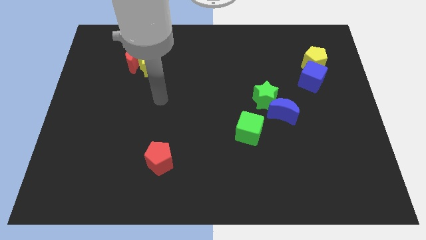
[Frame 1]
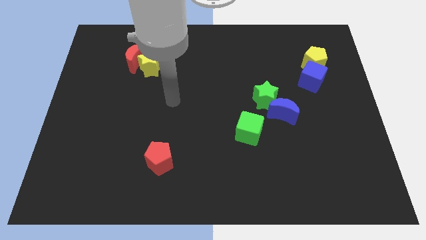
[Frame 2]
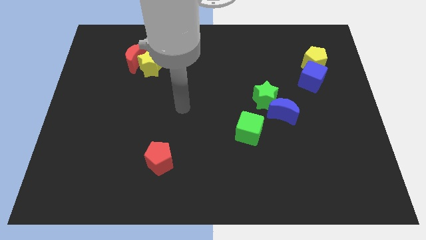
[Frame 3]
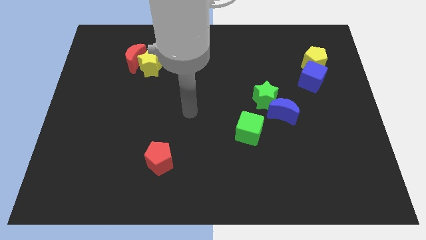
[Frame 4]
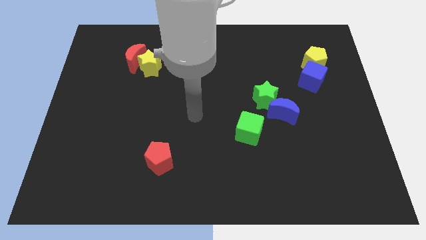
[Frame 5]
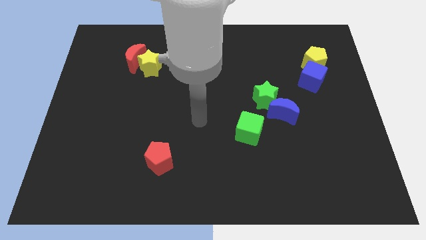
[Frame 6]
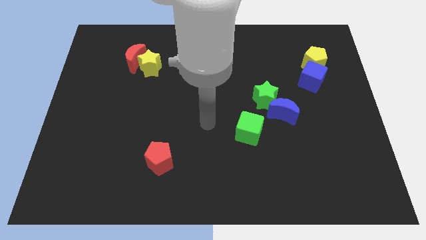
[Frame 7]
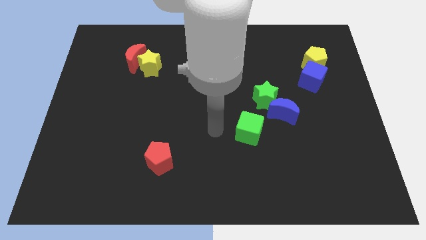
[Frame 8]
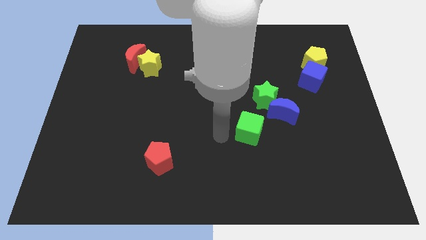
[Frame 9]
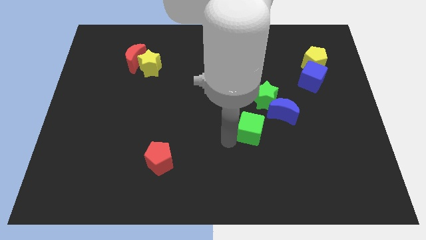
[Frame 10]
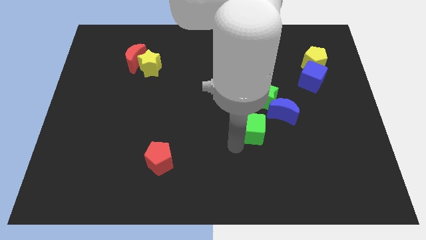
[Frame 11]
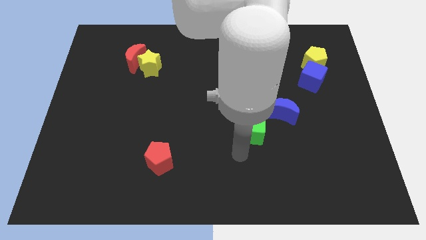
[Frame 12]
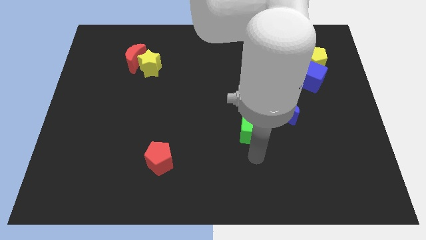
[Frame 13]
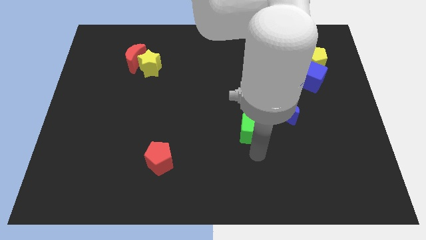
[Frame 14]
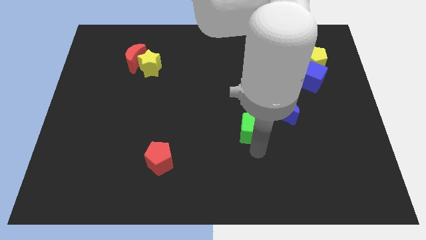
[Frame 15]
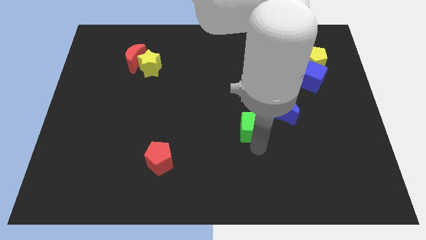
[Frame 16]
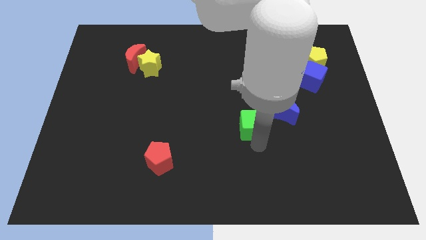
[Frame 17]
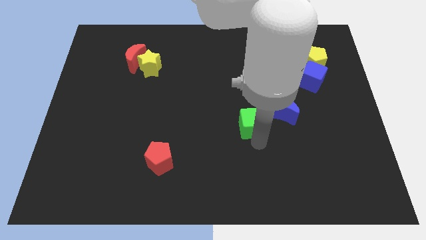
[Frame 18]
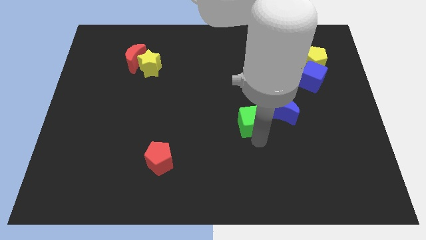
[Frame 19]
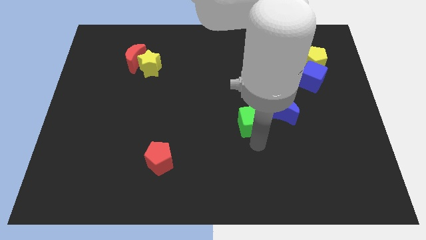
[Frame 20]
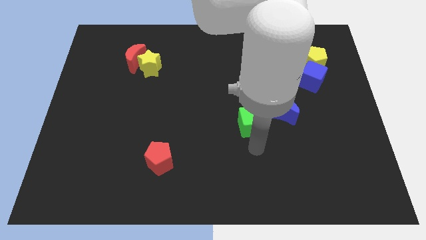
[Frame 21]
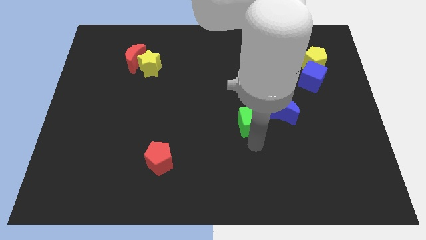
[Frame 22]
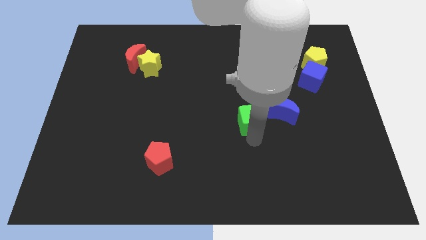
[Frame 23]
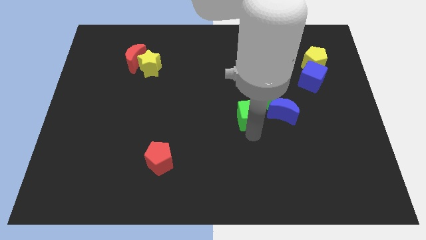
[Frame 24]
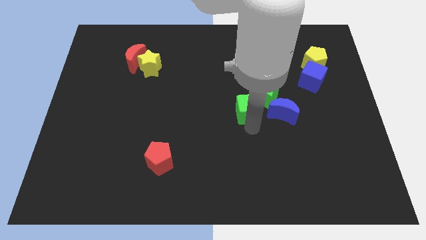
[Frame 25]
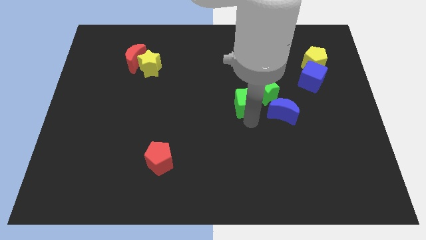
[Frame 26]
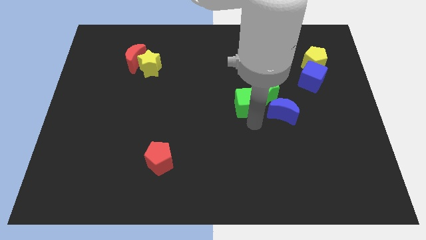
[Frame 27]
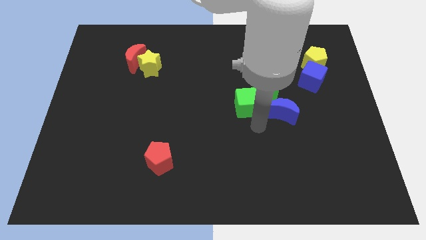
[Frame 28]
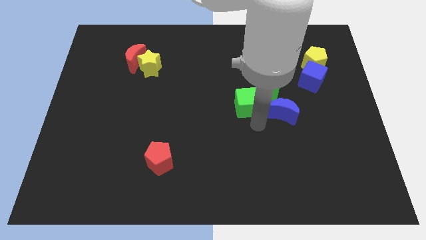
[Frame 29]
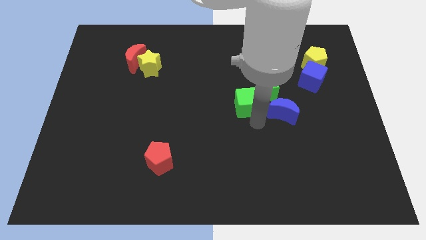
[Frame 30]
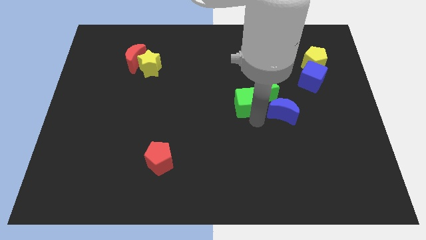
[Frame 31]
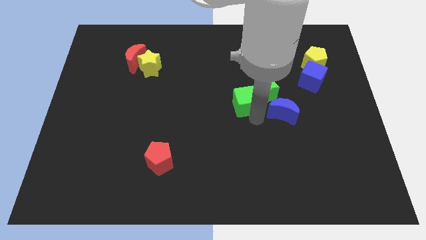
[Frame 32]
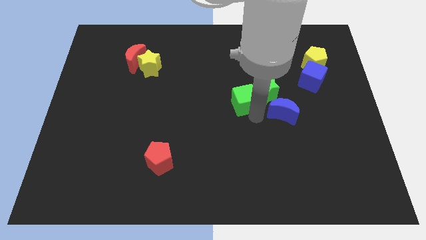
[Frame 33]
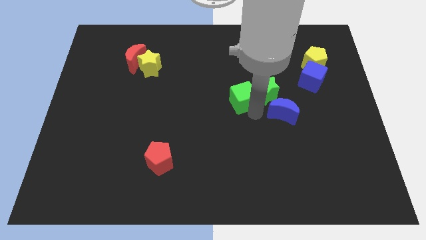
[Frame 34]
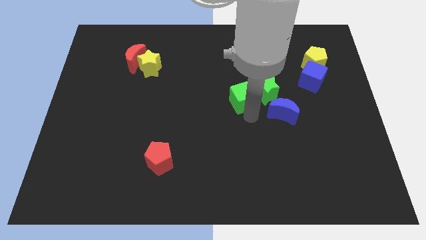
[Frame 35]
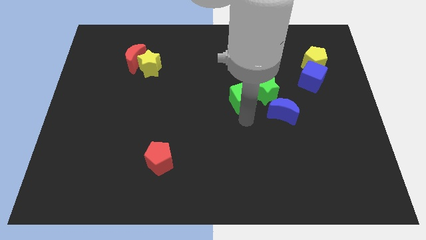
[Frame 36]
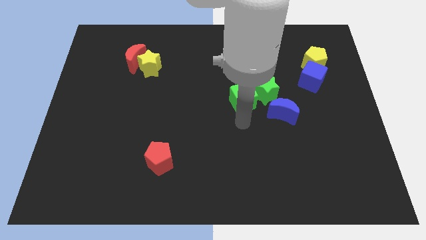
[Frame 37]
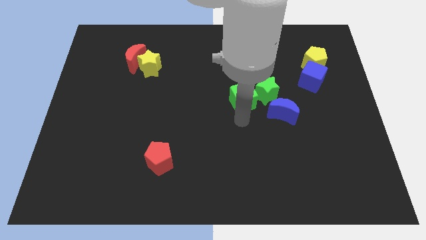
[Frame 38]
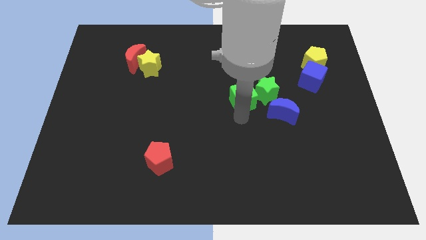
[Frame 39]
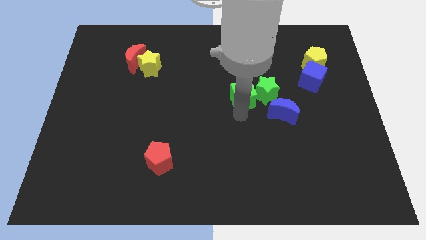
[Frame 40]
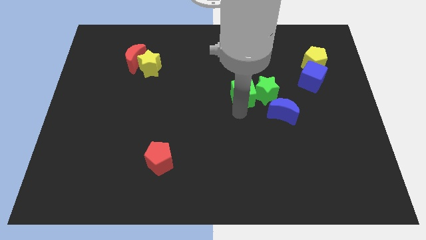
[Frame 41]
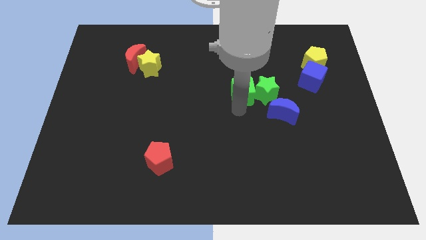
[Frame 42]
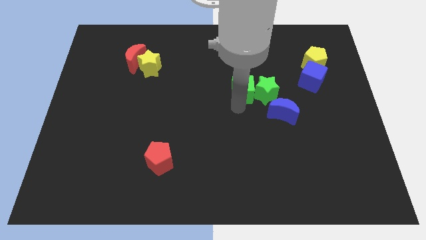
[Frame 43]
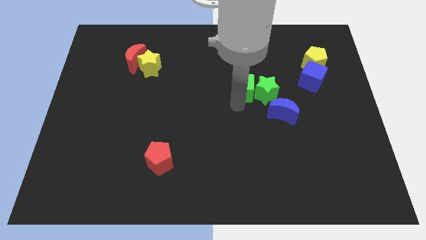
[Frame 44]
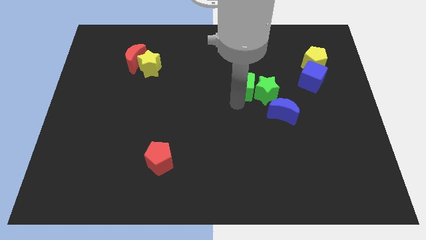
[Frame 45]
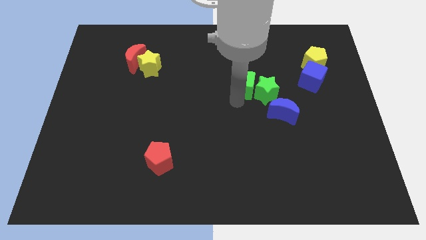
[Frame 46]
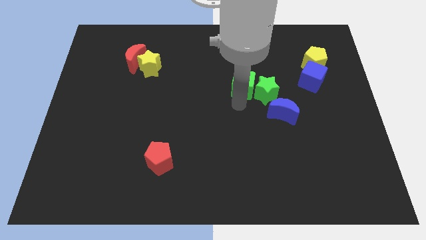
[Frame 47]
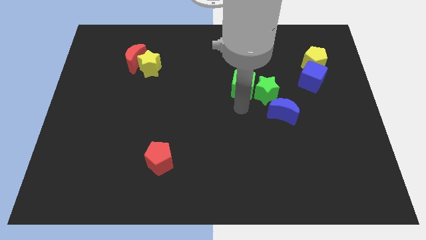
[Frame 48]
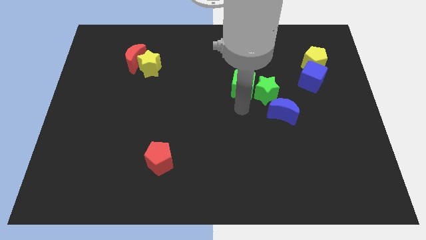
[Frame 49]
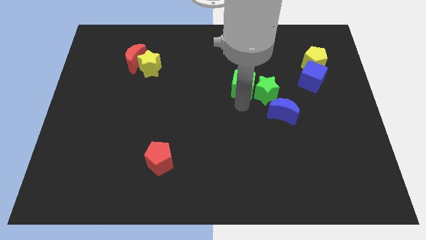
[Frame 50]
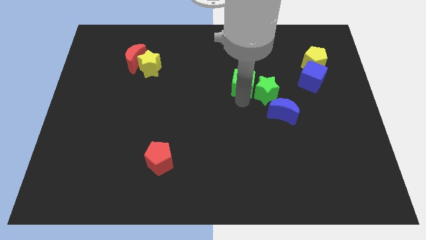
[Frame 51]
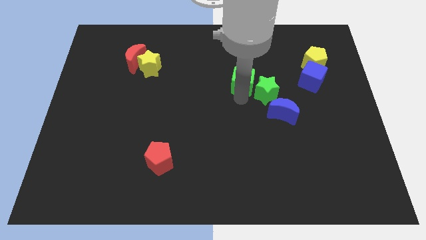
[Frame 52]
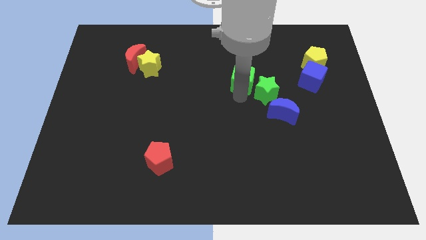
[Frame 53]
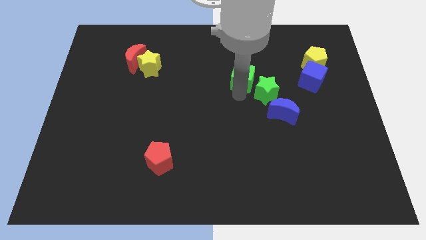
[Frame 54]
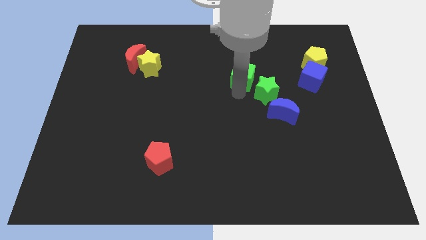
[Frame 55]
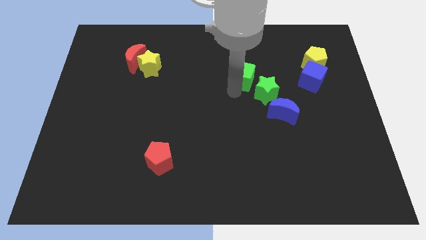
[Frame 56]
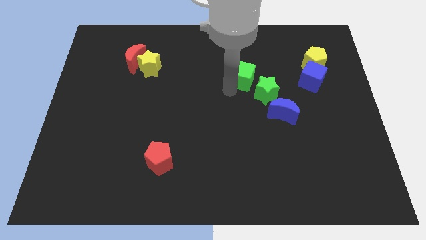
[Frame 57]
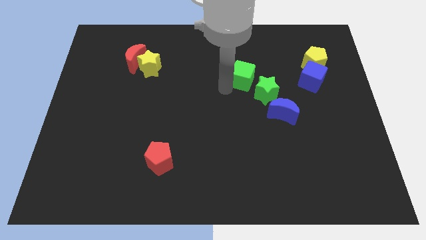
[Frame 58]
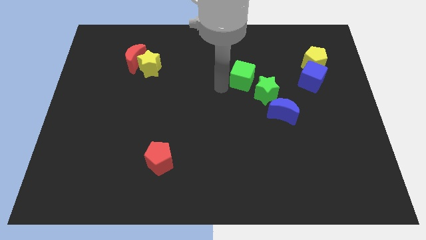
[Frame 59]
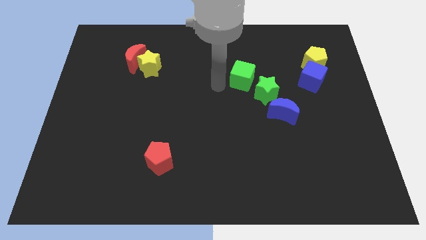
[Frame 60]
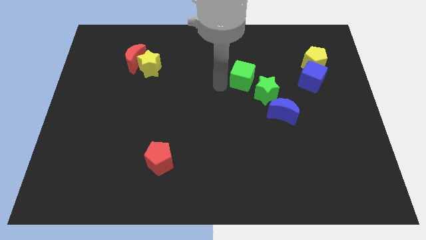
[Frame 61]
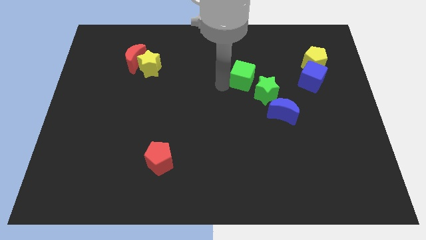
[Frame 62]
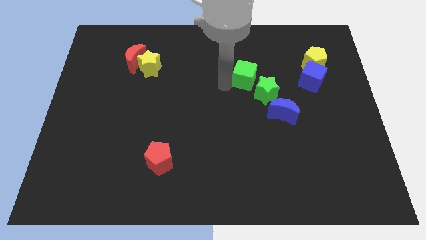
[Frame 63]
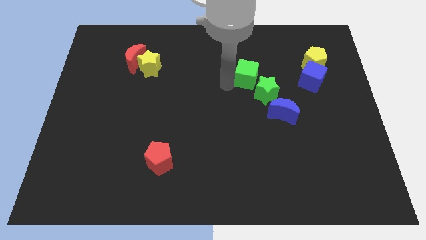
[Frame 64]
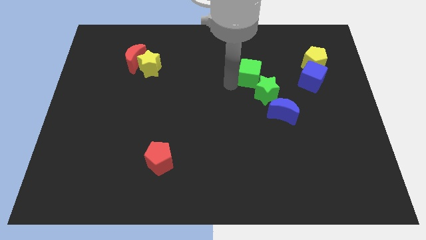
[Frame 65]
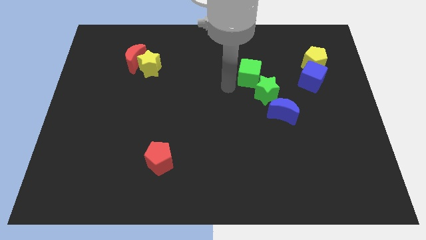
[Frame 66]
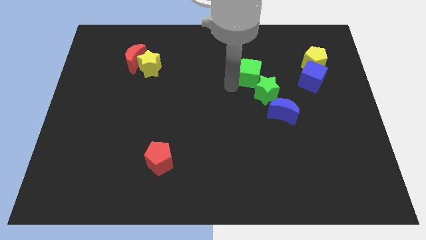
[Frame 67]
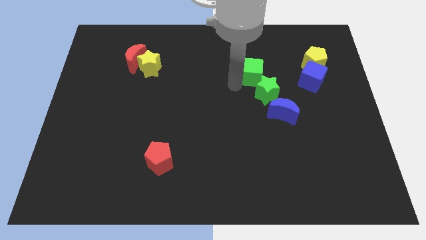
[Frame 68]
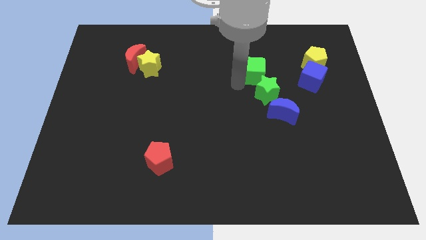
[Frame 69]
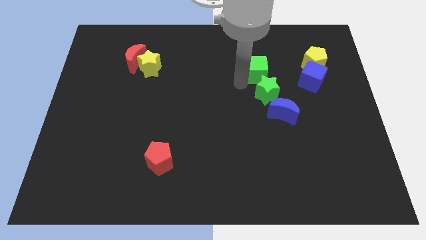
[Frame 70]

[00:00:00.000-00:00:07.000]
put the green cube left of the yellow pentagon

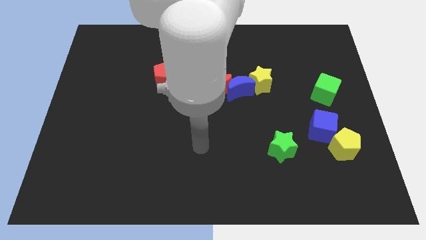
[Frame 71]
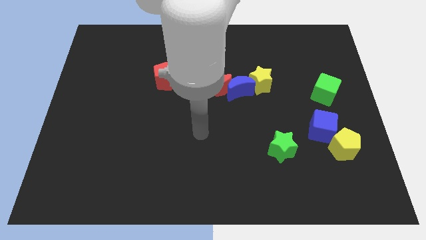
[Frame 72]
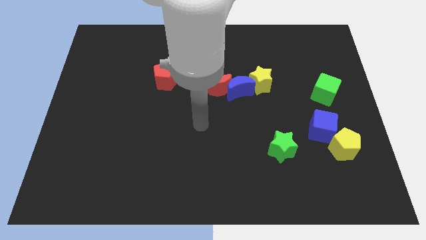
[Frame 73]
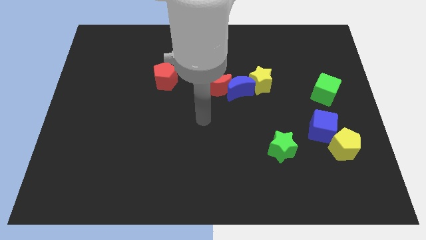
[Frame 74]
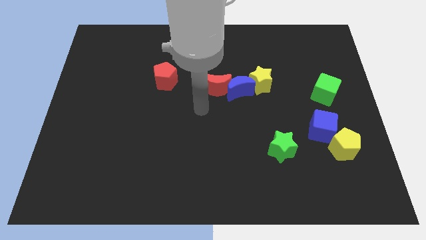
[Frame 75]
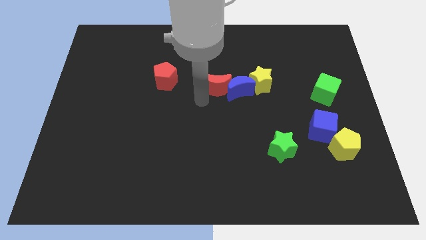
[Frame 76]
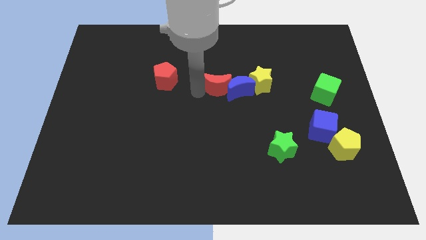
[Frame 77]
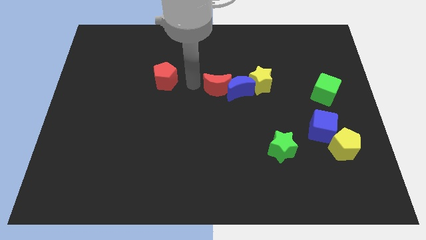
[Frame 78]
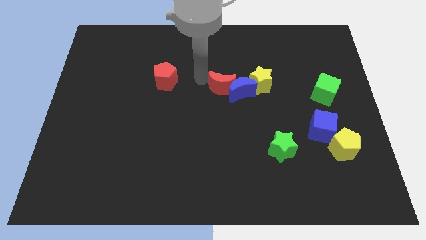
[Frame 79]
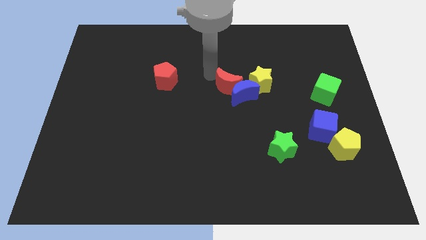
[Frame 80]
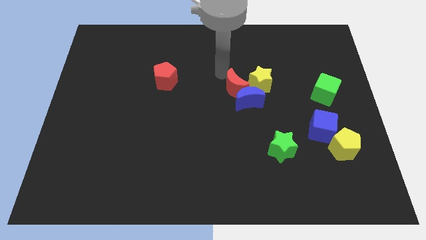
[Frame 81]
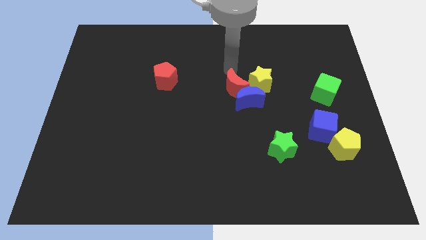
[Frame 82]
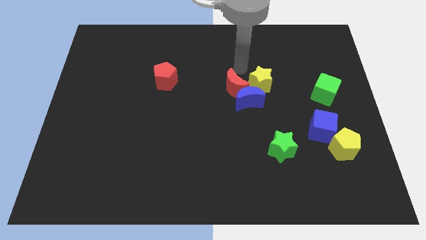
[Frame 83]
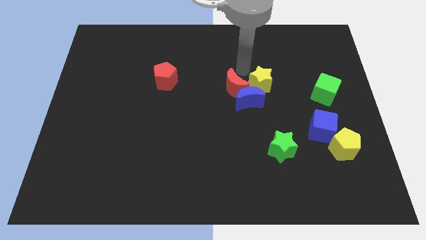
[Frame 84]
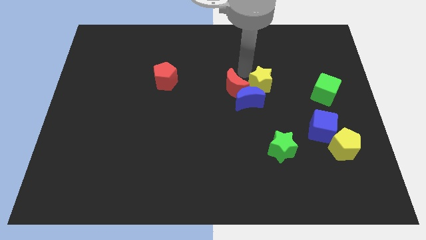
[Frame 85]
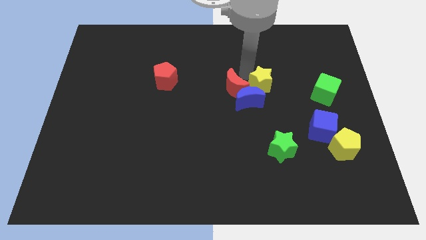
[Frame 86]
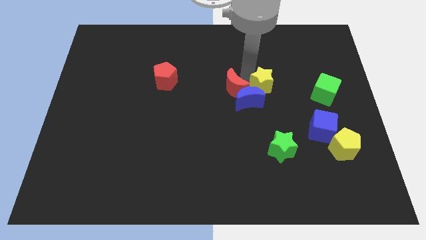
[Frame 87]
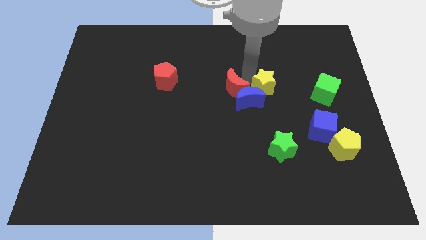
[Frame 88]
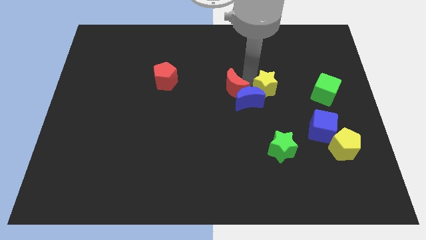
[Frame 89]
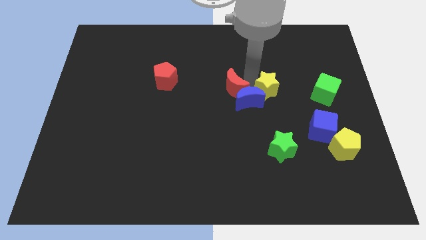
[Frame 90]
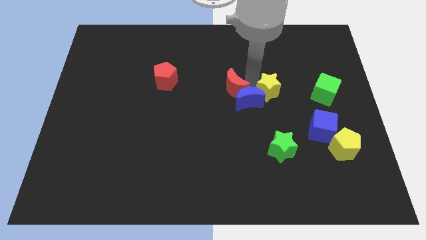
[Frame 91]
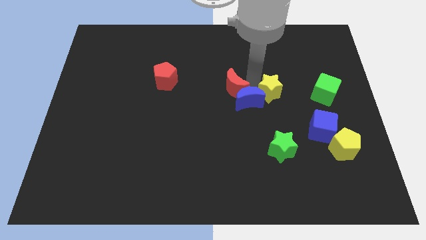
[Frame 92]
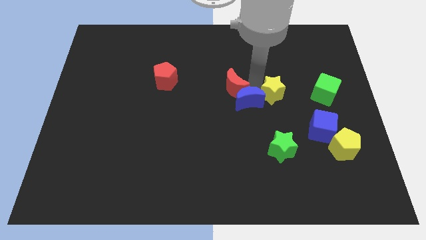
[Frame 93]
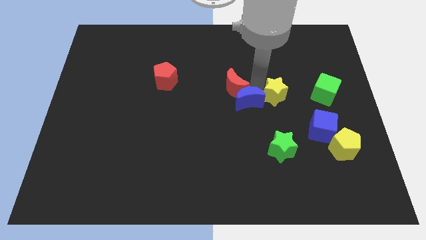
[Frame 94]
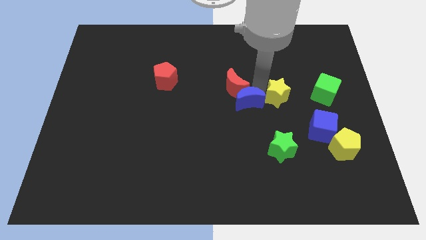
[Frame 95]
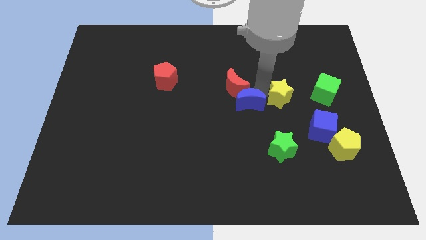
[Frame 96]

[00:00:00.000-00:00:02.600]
slide the yellow star to the top left of the blue cube
